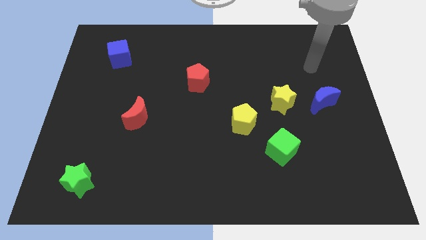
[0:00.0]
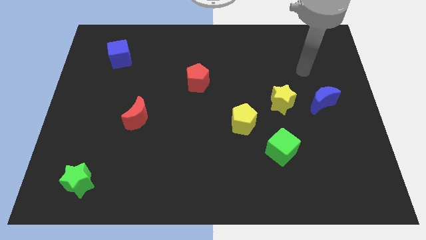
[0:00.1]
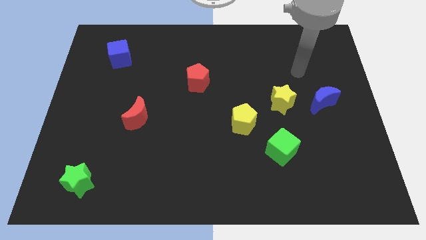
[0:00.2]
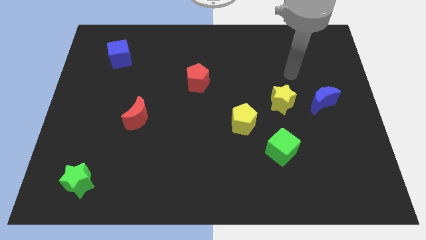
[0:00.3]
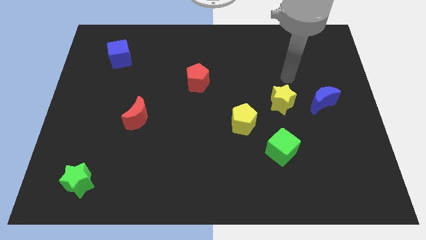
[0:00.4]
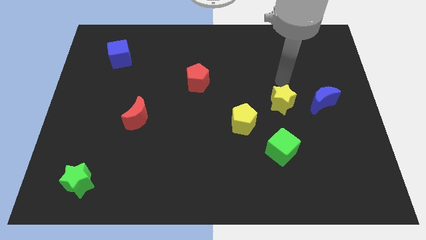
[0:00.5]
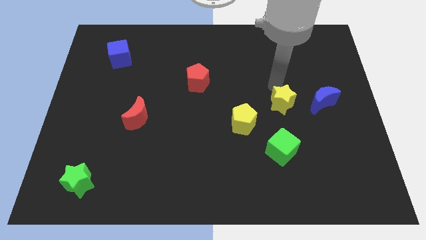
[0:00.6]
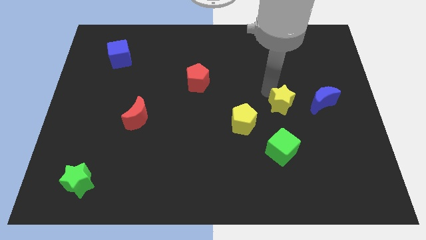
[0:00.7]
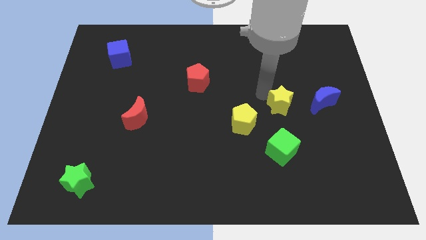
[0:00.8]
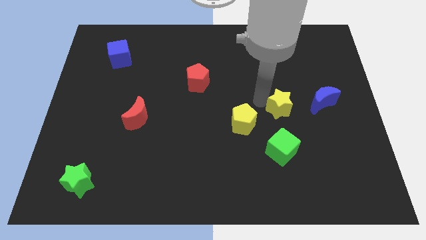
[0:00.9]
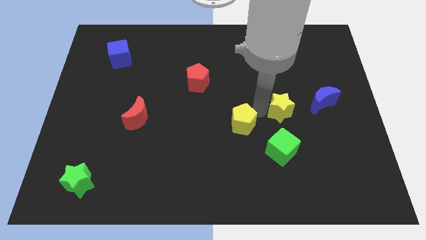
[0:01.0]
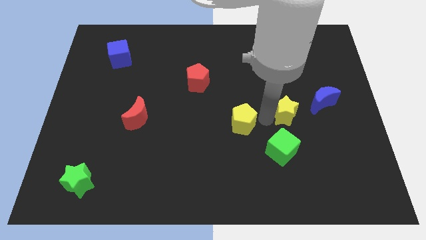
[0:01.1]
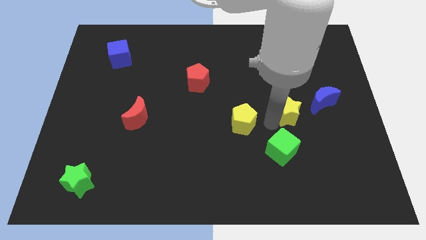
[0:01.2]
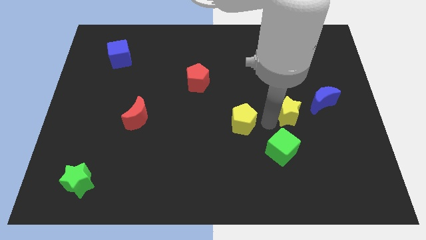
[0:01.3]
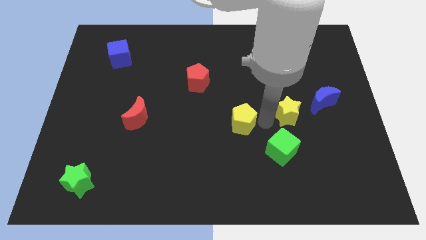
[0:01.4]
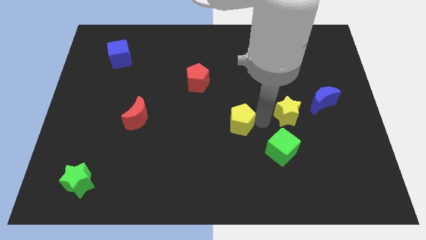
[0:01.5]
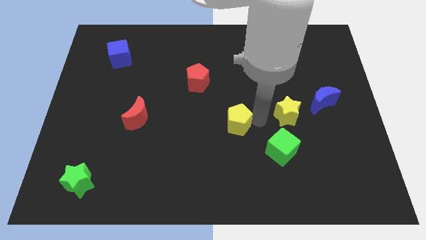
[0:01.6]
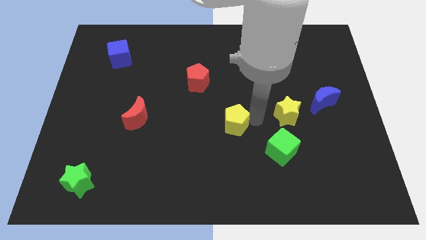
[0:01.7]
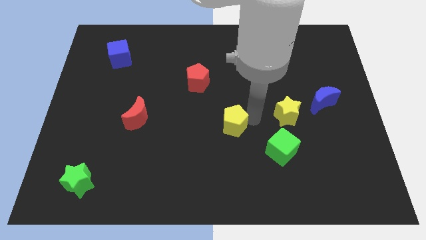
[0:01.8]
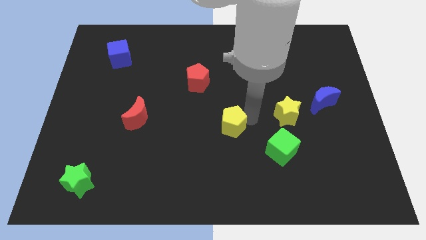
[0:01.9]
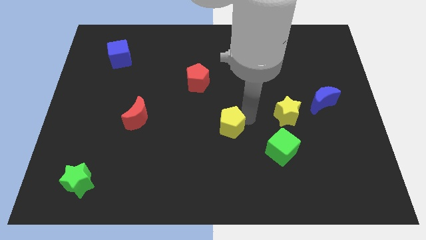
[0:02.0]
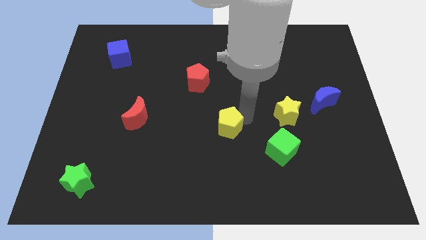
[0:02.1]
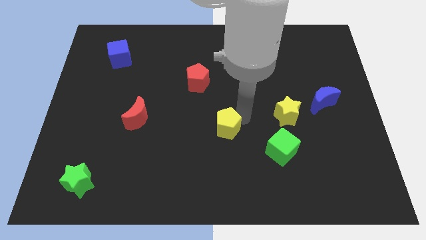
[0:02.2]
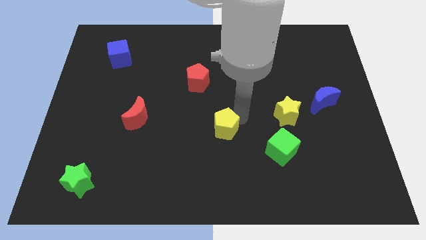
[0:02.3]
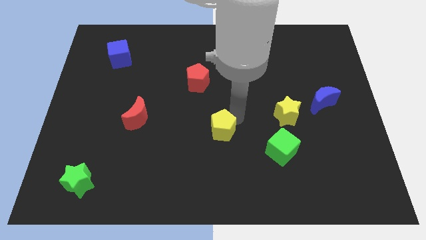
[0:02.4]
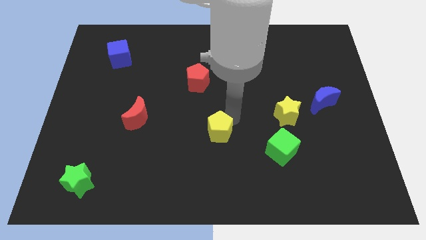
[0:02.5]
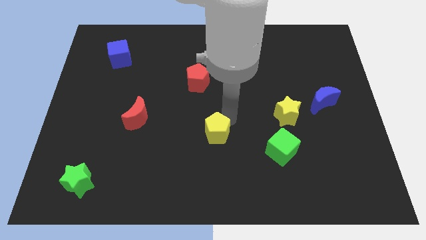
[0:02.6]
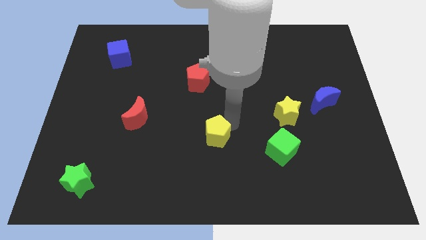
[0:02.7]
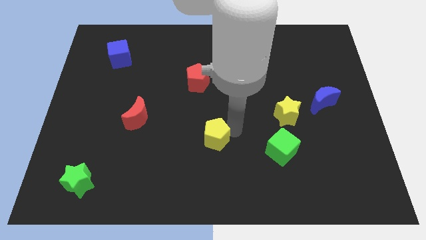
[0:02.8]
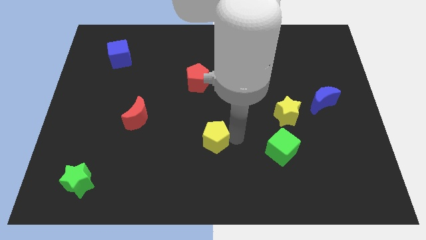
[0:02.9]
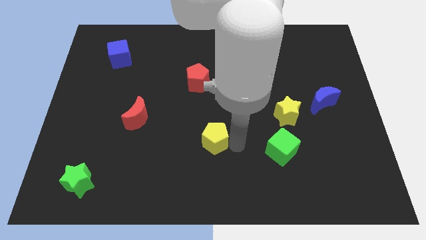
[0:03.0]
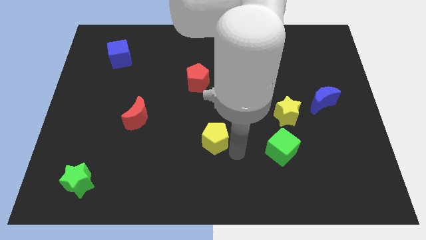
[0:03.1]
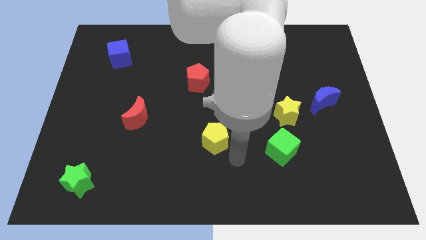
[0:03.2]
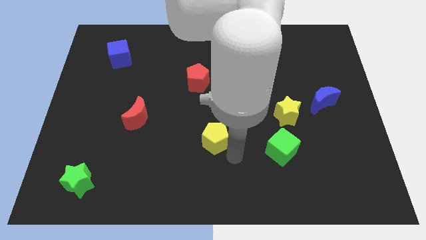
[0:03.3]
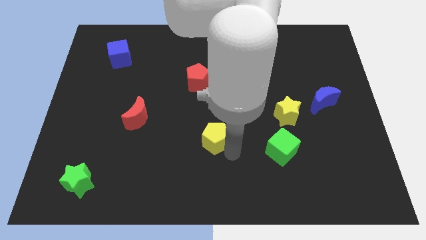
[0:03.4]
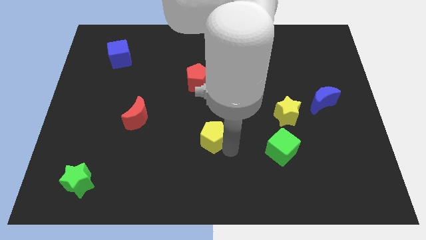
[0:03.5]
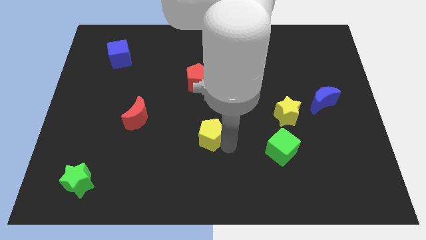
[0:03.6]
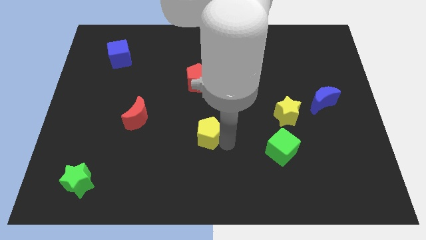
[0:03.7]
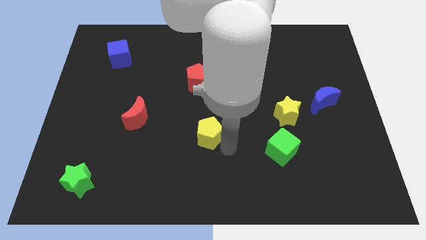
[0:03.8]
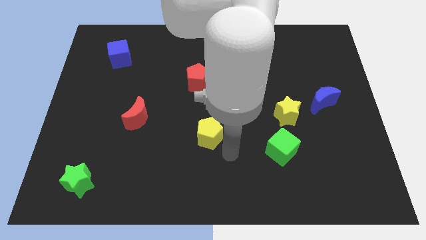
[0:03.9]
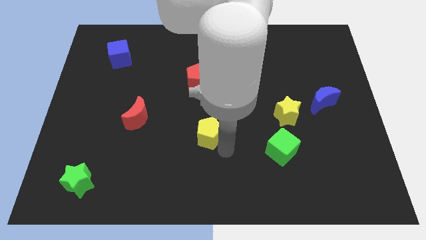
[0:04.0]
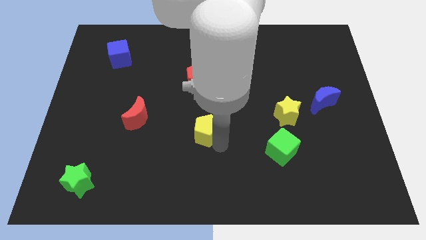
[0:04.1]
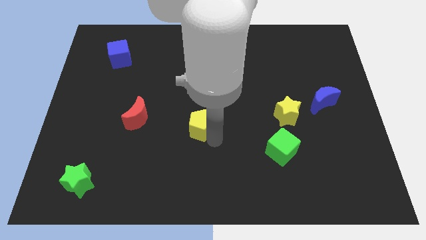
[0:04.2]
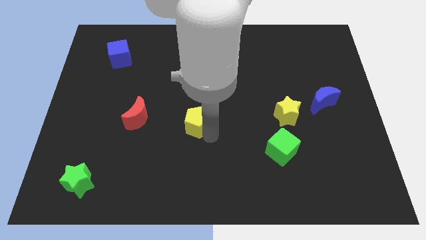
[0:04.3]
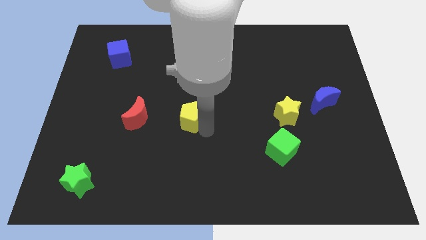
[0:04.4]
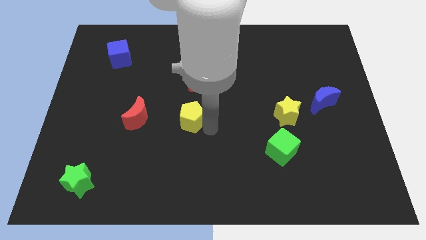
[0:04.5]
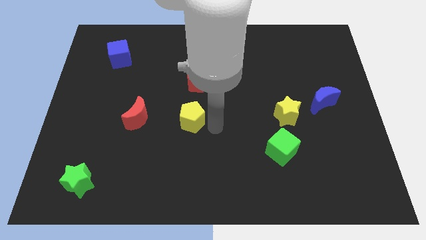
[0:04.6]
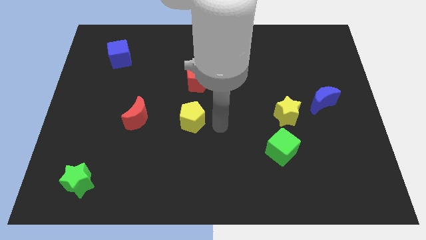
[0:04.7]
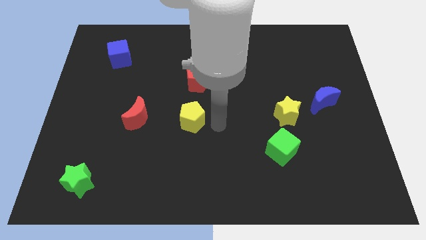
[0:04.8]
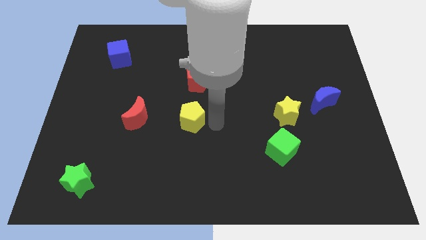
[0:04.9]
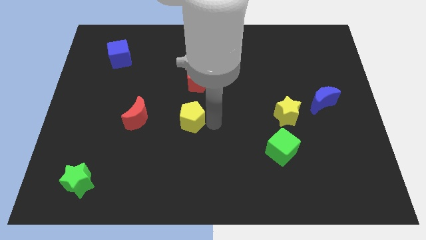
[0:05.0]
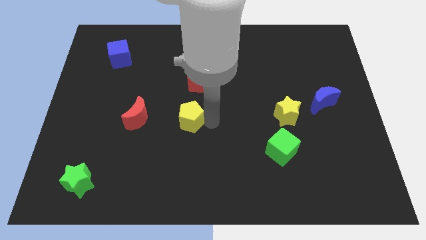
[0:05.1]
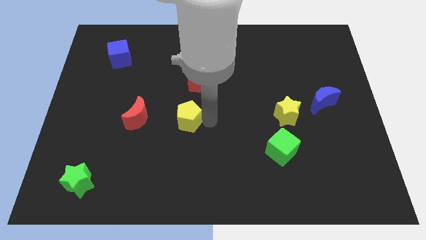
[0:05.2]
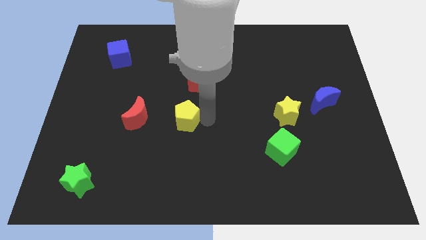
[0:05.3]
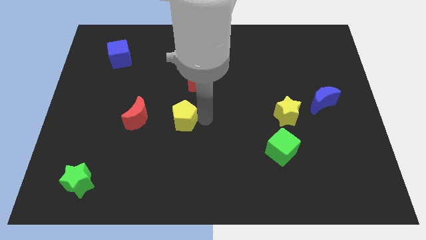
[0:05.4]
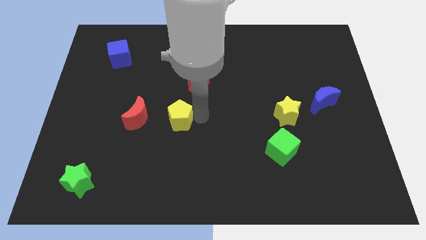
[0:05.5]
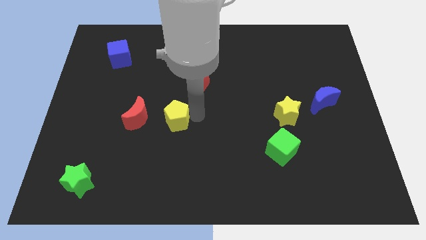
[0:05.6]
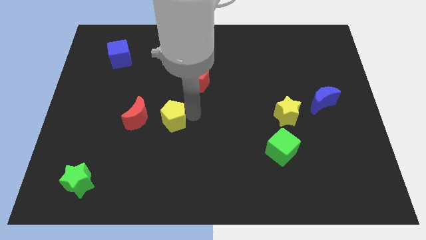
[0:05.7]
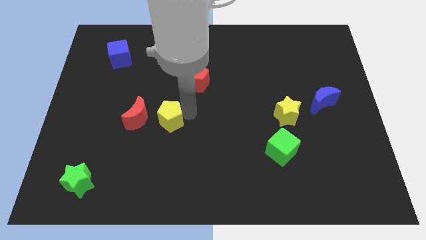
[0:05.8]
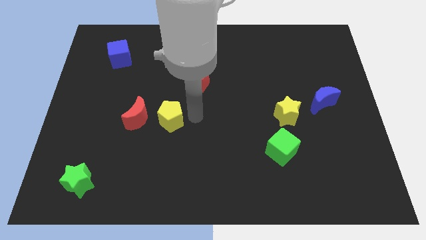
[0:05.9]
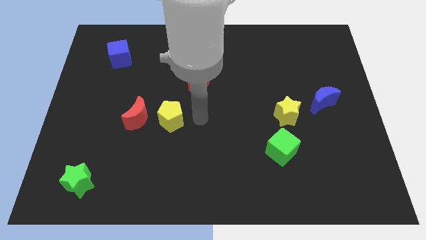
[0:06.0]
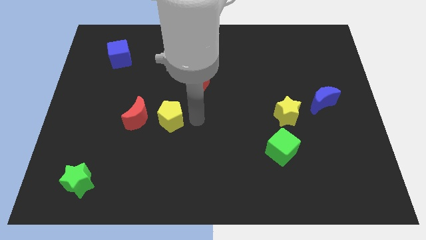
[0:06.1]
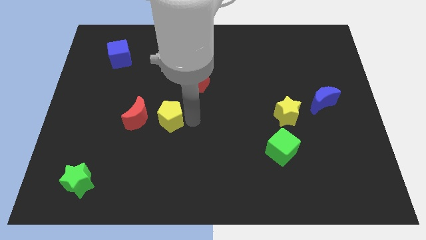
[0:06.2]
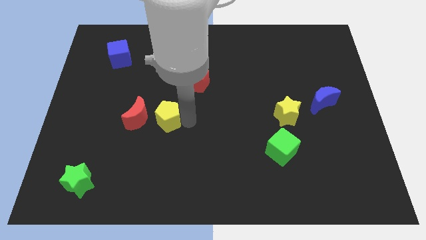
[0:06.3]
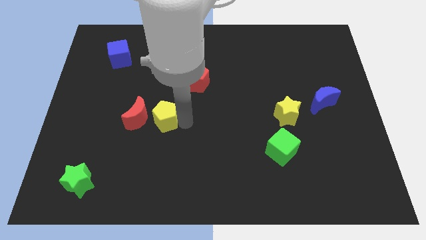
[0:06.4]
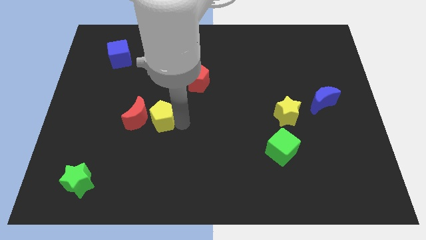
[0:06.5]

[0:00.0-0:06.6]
put the yellow pentagon close to the red moon

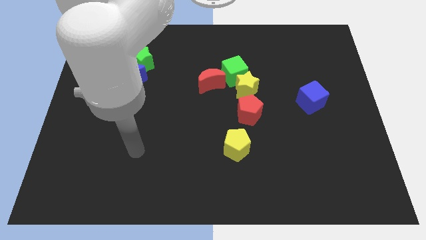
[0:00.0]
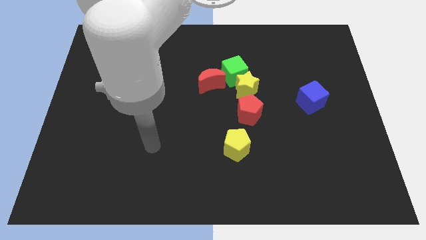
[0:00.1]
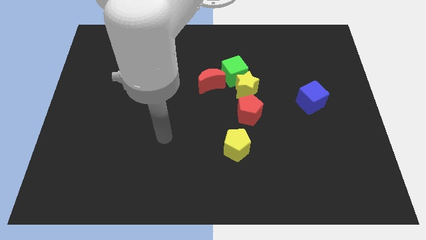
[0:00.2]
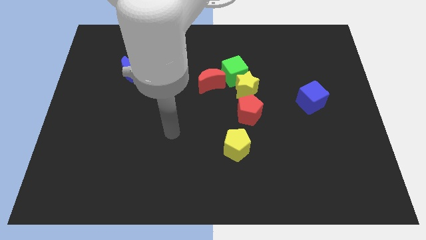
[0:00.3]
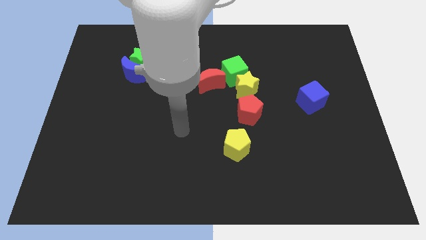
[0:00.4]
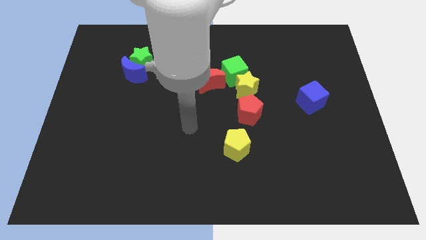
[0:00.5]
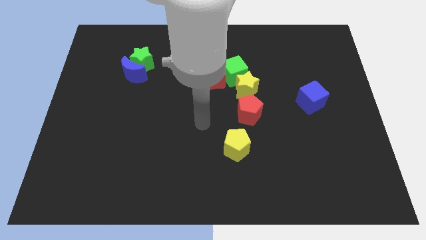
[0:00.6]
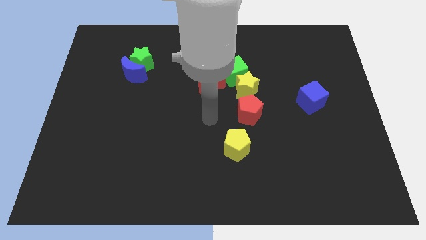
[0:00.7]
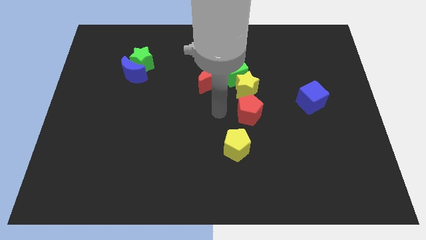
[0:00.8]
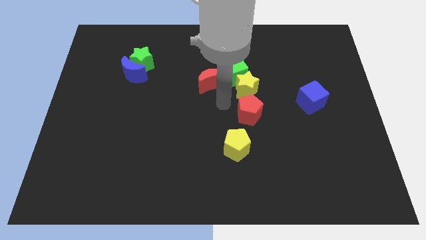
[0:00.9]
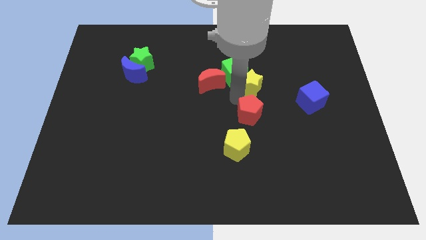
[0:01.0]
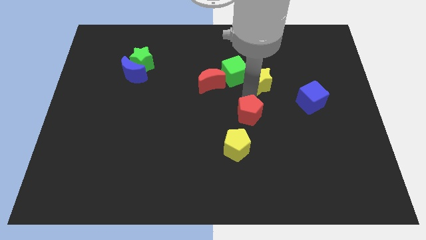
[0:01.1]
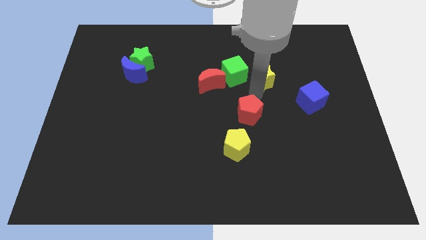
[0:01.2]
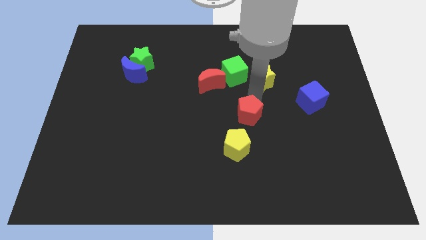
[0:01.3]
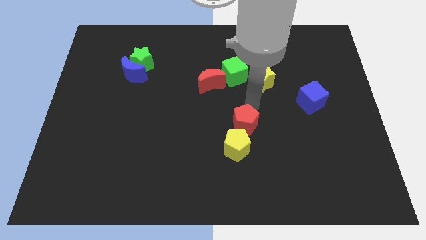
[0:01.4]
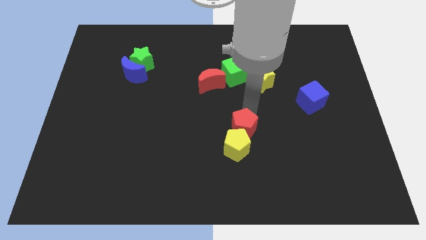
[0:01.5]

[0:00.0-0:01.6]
push the red pentagon towards the yellow pentagon
